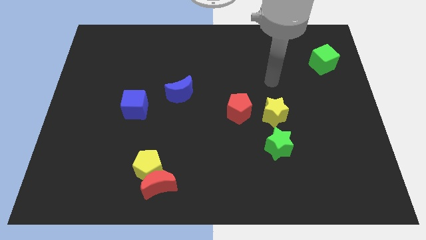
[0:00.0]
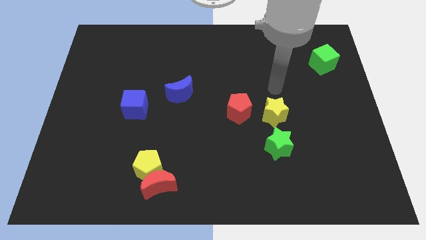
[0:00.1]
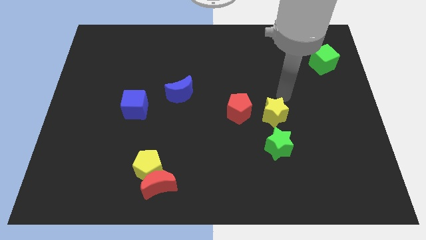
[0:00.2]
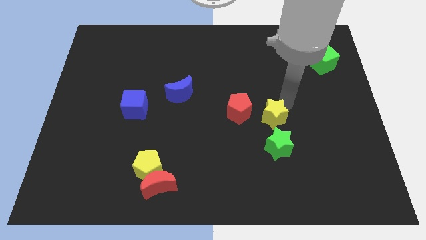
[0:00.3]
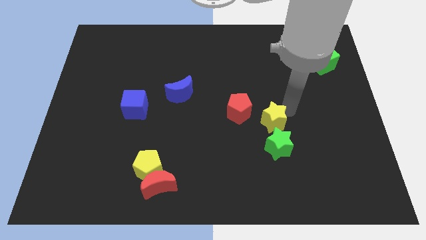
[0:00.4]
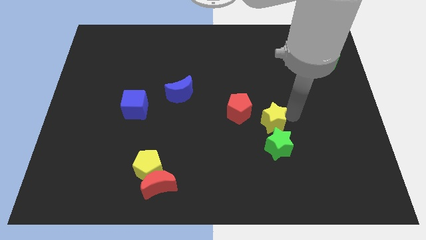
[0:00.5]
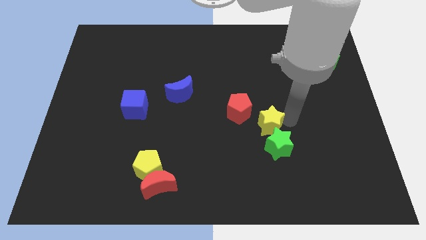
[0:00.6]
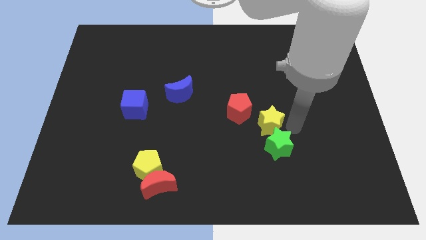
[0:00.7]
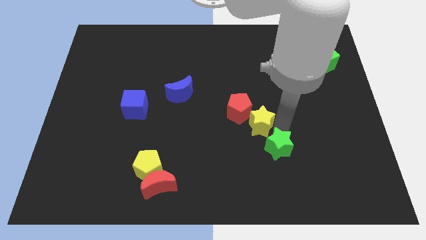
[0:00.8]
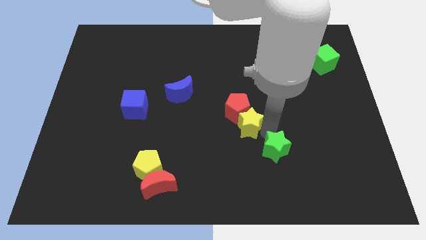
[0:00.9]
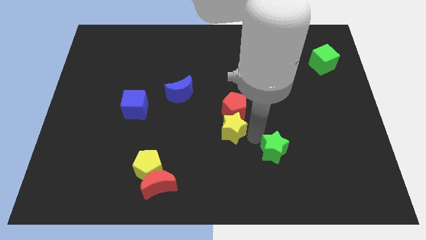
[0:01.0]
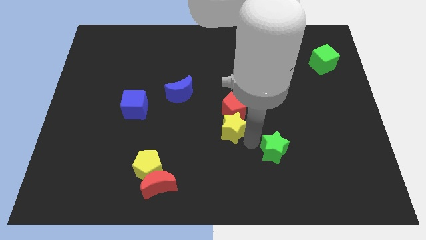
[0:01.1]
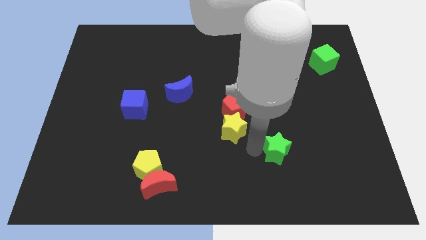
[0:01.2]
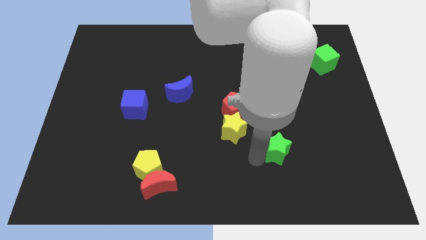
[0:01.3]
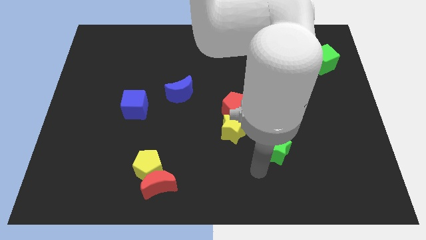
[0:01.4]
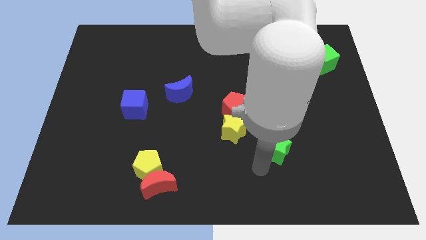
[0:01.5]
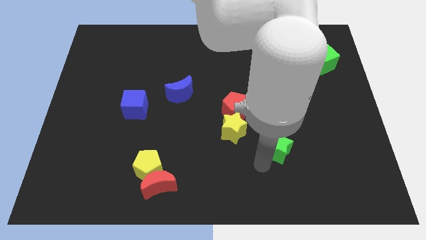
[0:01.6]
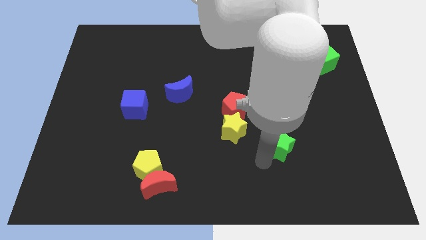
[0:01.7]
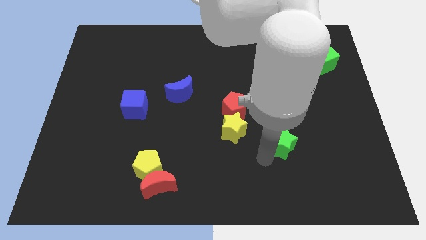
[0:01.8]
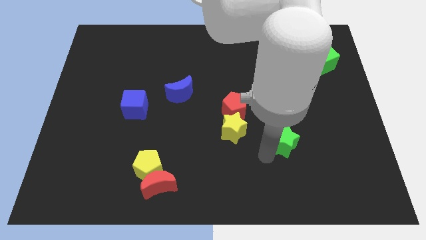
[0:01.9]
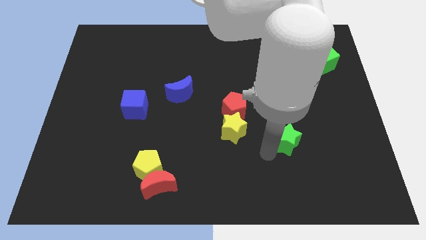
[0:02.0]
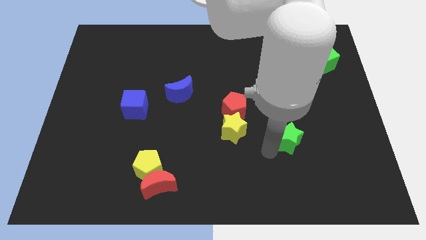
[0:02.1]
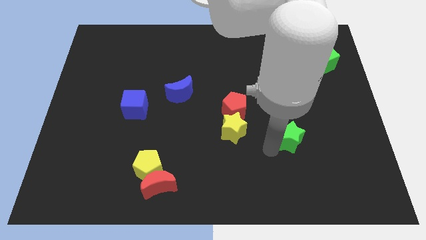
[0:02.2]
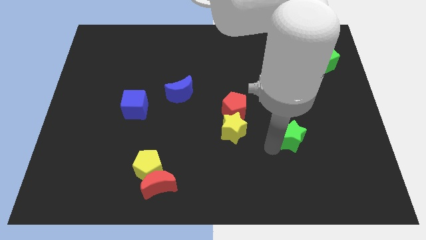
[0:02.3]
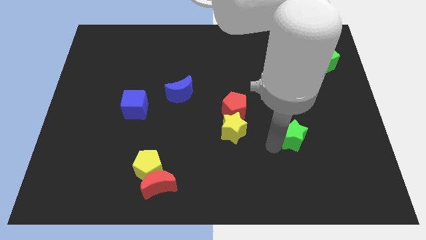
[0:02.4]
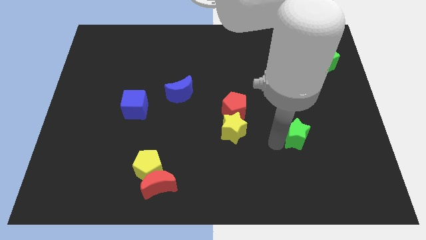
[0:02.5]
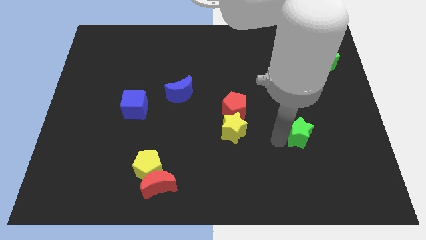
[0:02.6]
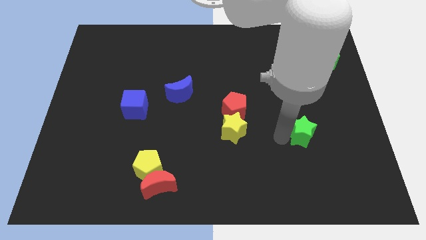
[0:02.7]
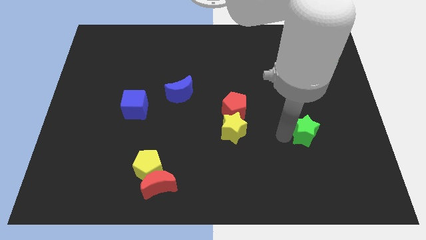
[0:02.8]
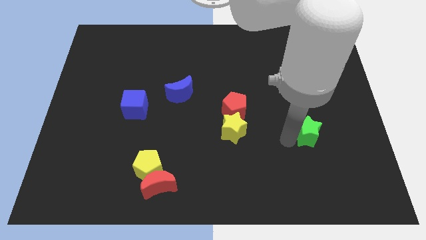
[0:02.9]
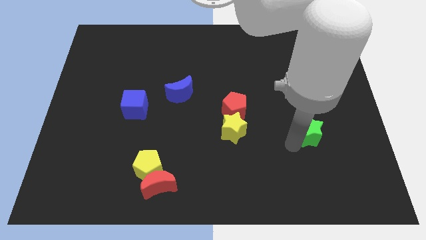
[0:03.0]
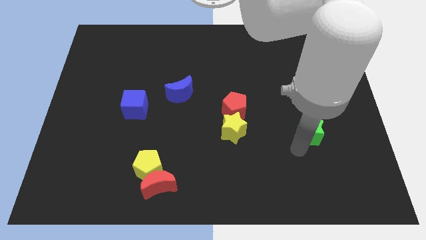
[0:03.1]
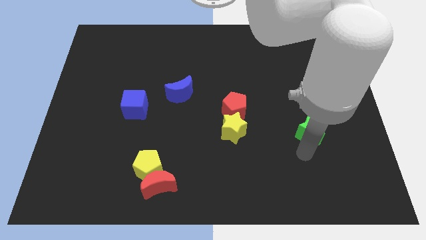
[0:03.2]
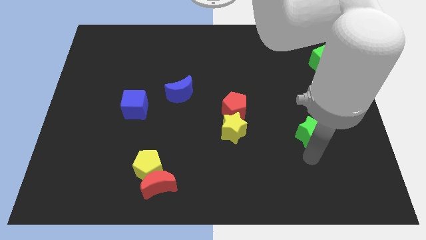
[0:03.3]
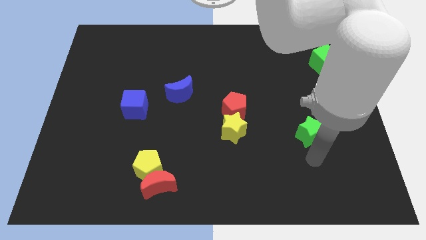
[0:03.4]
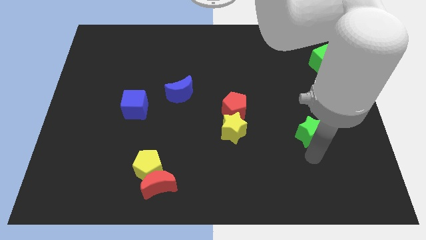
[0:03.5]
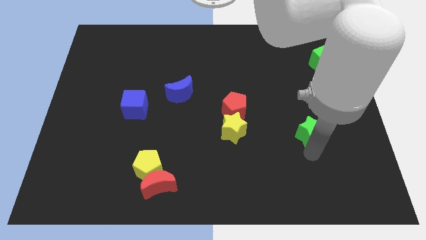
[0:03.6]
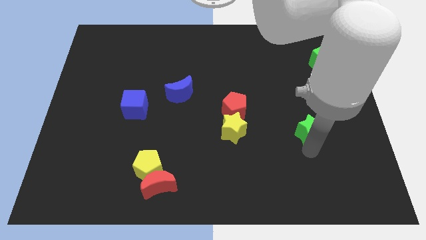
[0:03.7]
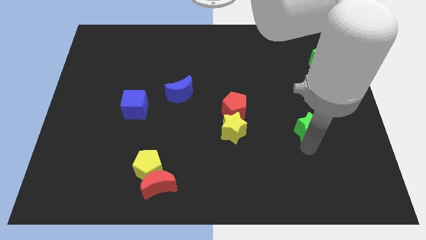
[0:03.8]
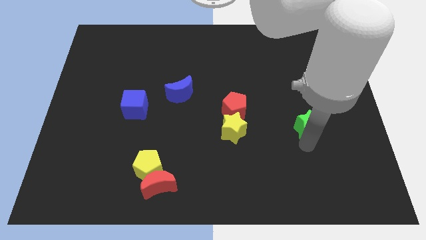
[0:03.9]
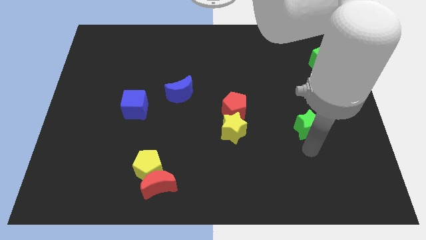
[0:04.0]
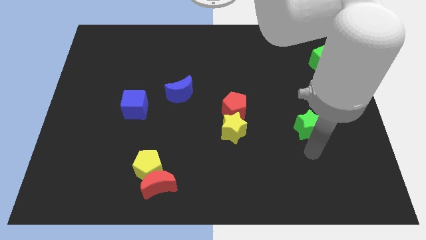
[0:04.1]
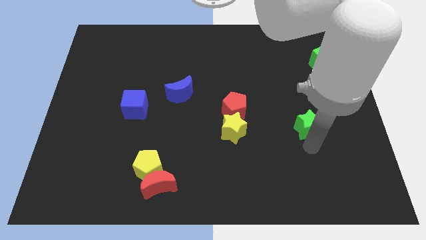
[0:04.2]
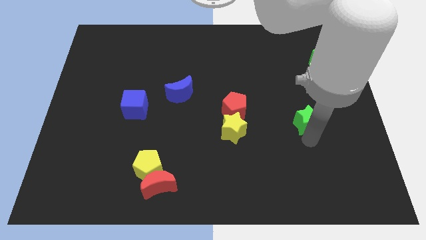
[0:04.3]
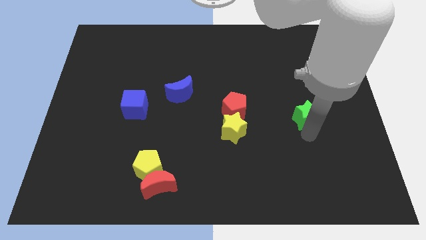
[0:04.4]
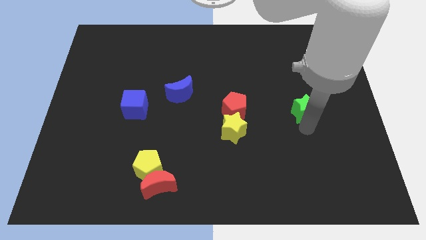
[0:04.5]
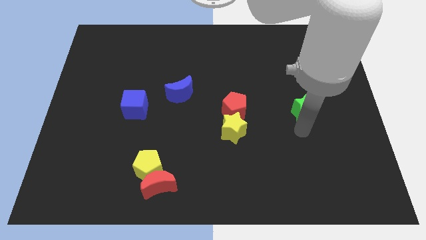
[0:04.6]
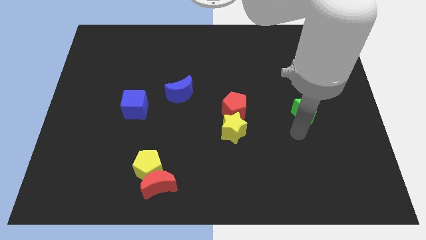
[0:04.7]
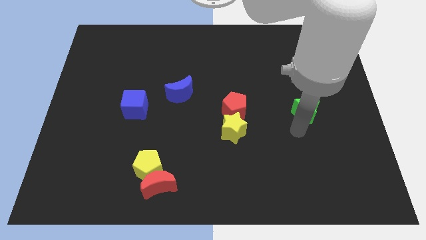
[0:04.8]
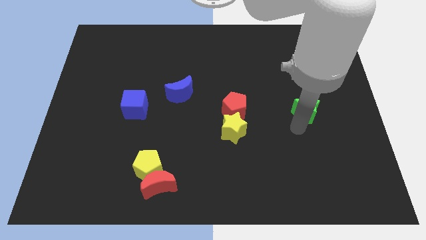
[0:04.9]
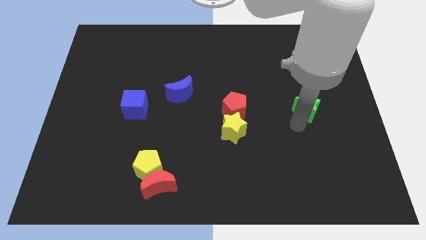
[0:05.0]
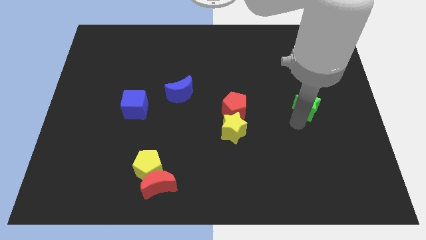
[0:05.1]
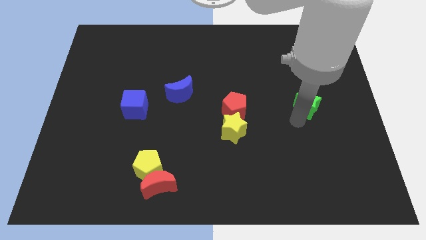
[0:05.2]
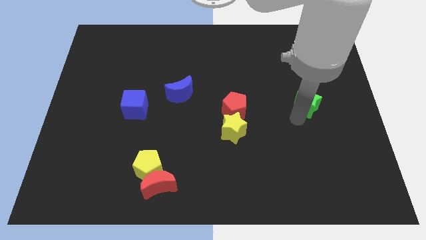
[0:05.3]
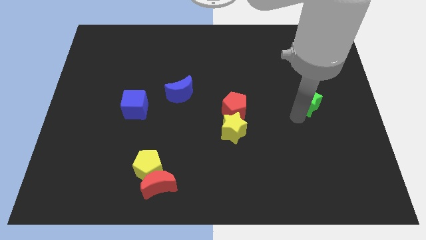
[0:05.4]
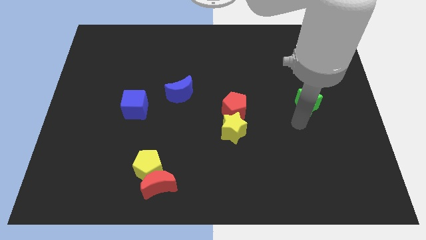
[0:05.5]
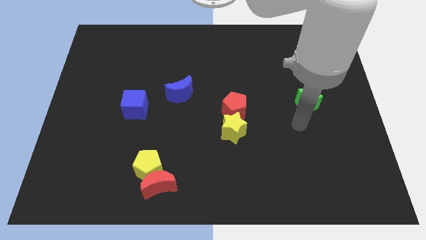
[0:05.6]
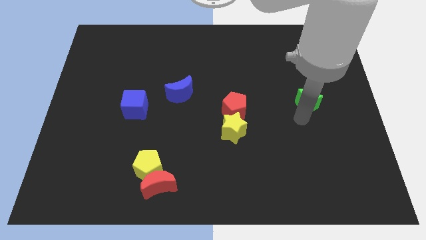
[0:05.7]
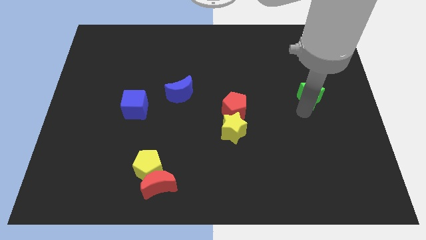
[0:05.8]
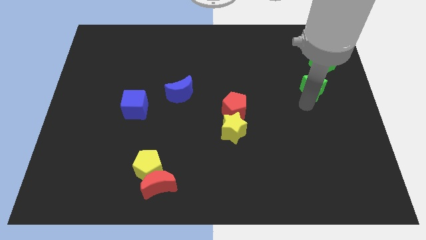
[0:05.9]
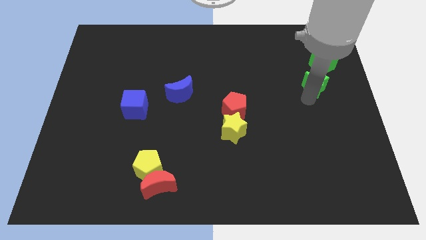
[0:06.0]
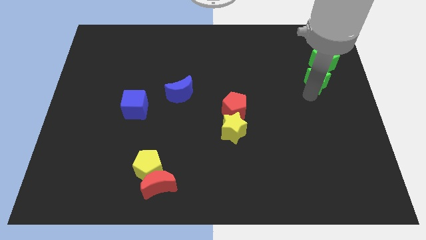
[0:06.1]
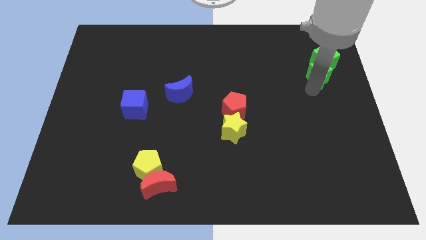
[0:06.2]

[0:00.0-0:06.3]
move the green star towards the green cube

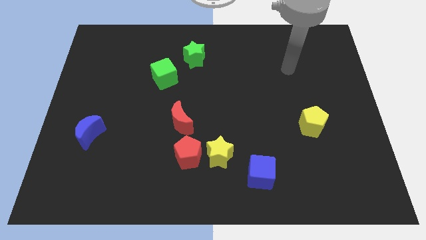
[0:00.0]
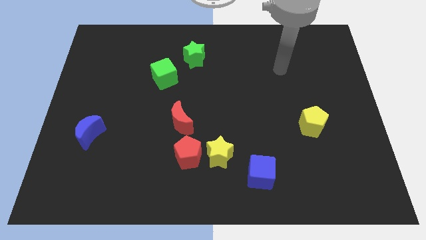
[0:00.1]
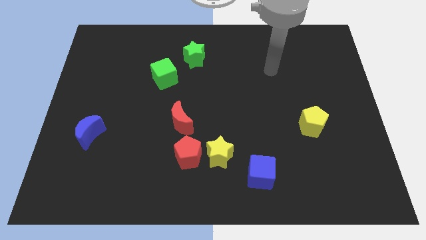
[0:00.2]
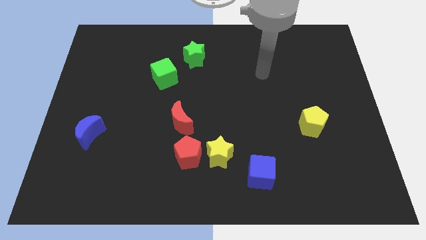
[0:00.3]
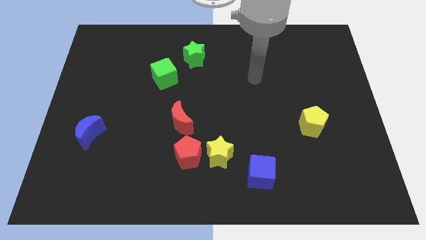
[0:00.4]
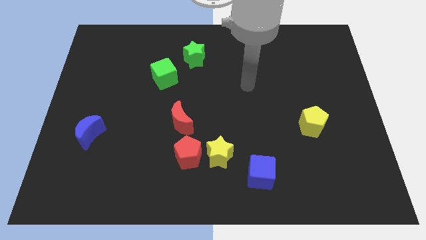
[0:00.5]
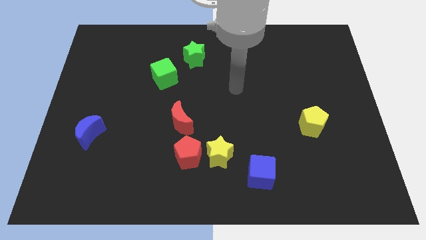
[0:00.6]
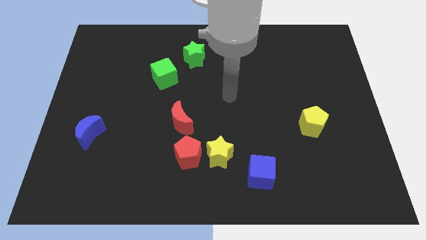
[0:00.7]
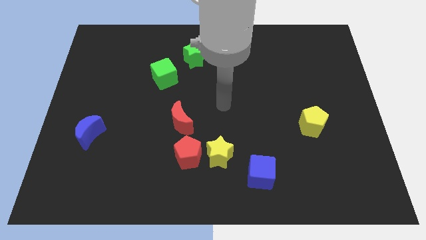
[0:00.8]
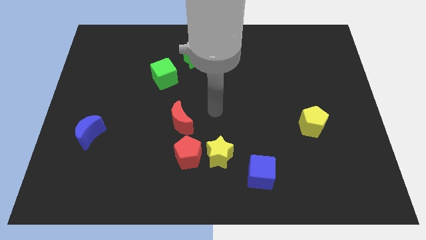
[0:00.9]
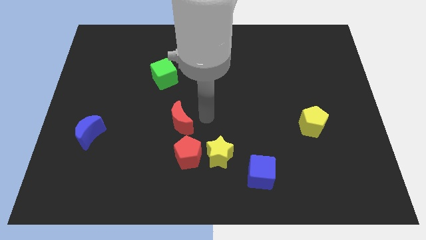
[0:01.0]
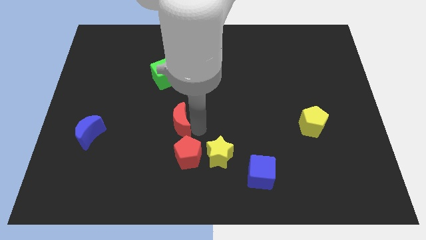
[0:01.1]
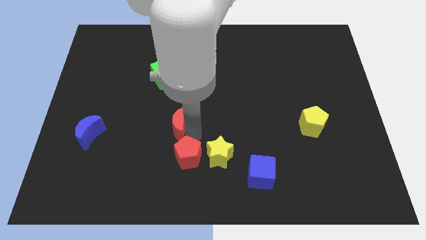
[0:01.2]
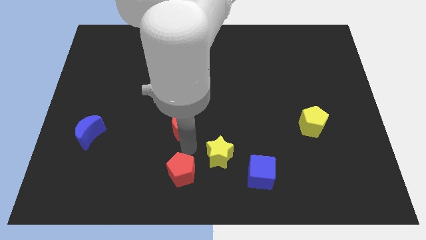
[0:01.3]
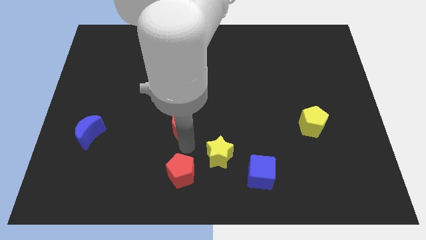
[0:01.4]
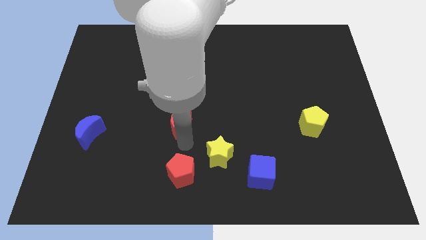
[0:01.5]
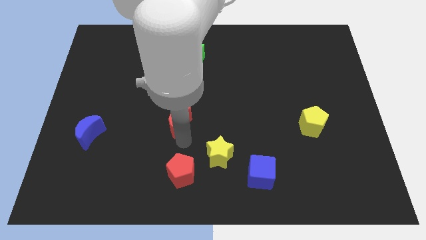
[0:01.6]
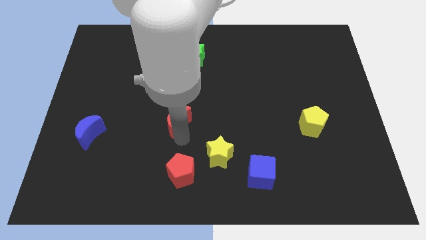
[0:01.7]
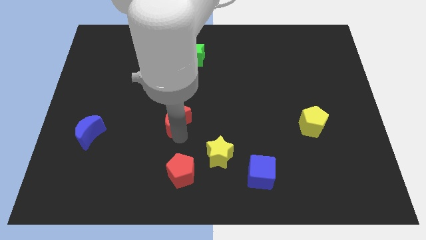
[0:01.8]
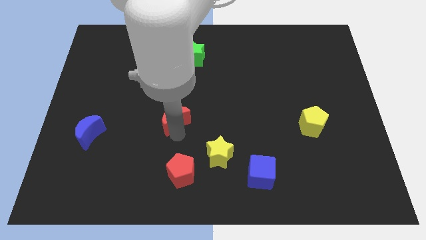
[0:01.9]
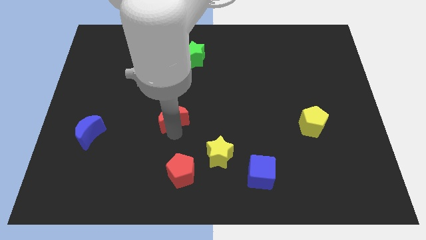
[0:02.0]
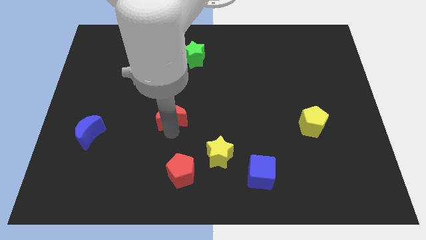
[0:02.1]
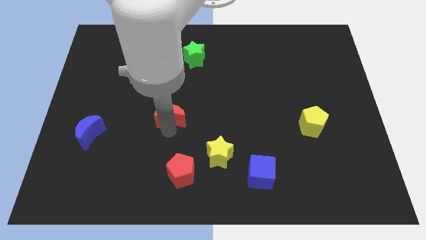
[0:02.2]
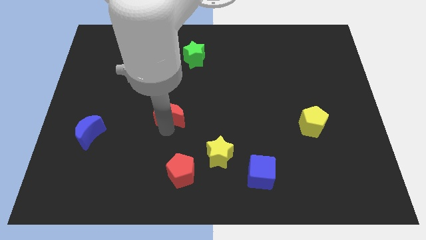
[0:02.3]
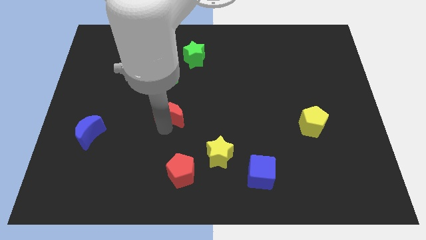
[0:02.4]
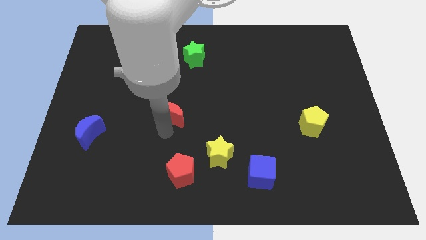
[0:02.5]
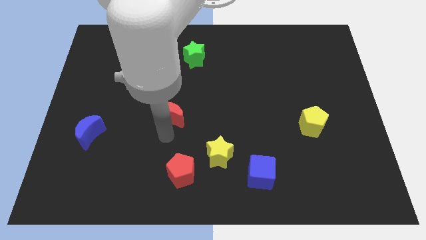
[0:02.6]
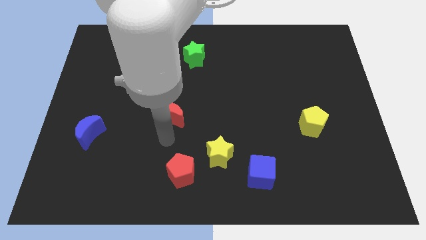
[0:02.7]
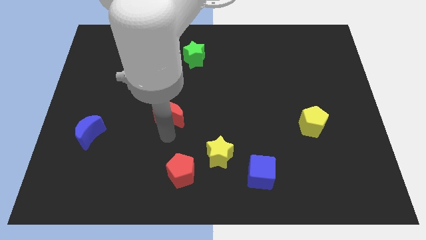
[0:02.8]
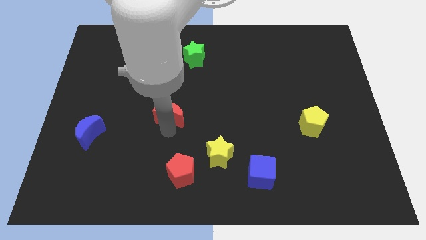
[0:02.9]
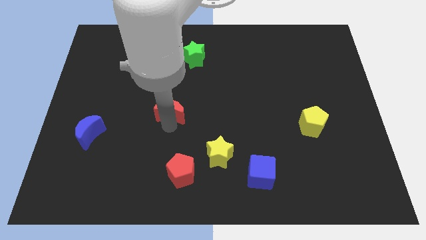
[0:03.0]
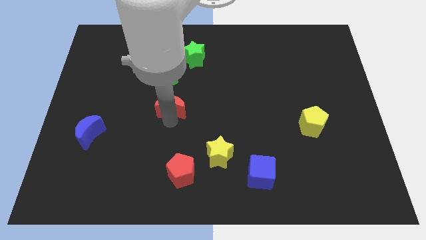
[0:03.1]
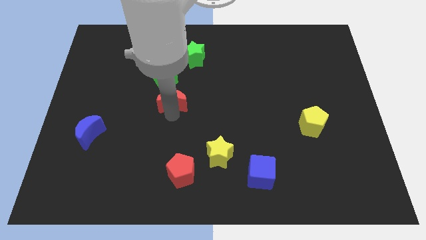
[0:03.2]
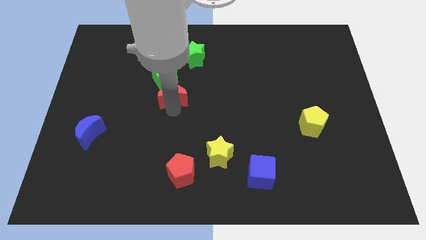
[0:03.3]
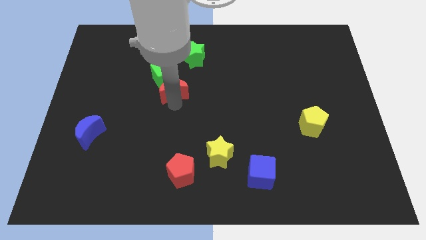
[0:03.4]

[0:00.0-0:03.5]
slide the red moon next to the green cube
